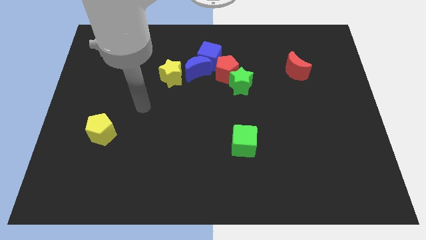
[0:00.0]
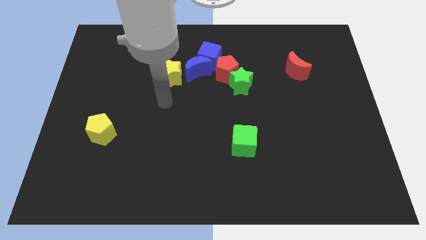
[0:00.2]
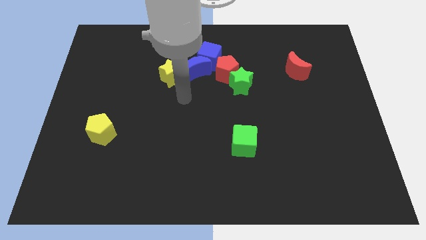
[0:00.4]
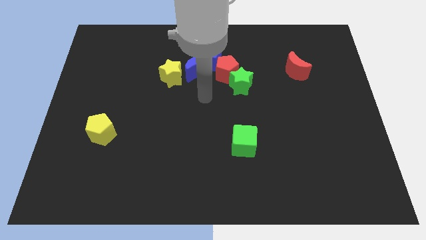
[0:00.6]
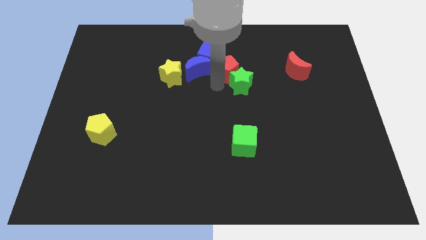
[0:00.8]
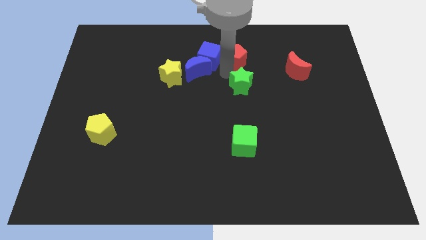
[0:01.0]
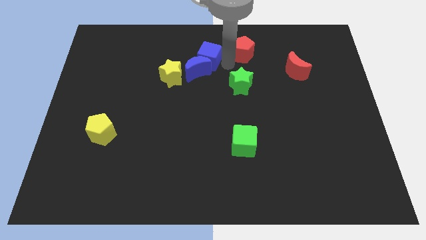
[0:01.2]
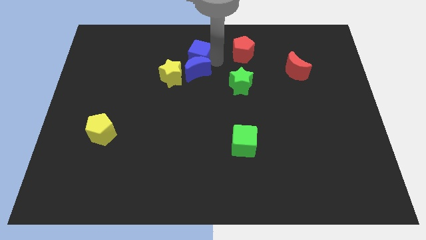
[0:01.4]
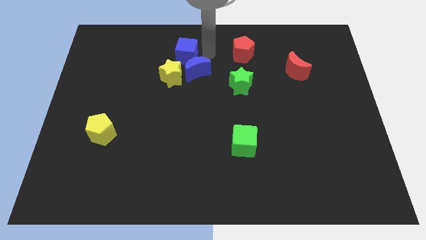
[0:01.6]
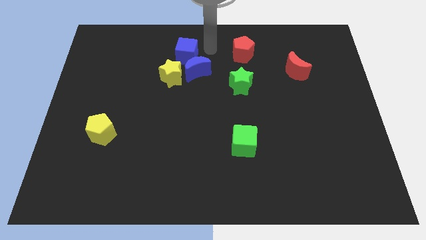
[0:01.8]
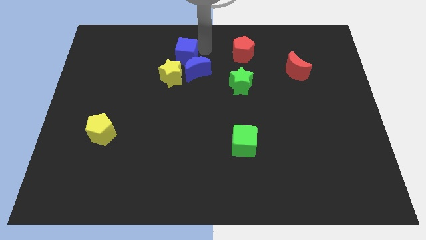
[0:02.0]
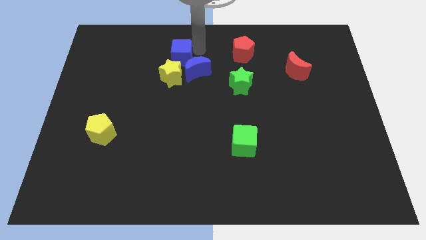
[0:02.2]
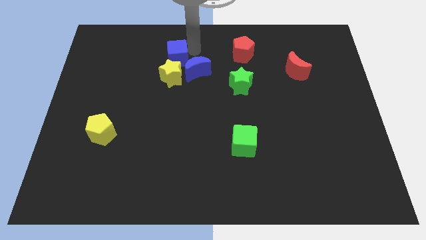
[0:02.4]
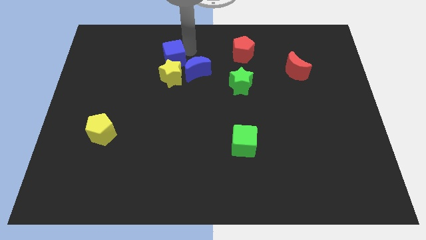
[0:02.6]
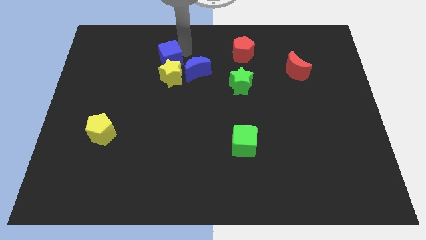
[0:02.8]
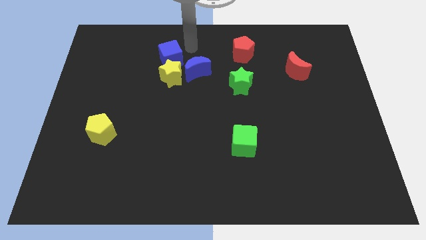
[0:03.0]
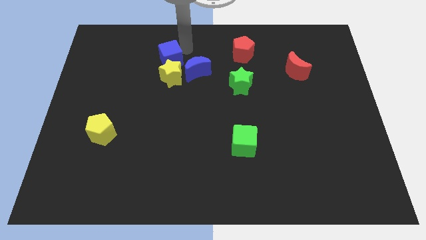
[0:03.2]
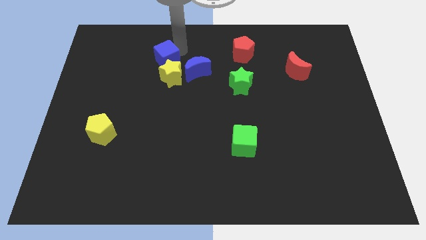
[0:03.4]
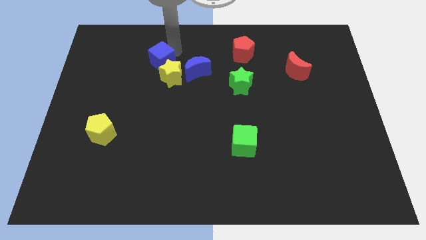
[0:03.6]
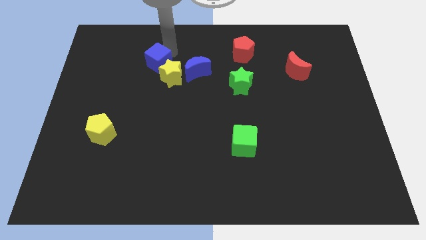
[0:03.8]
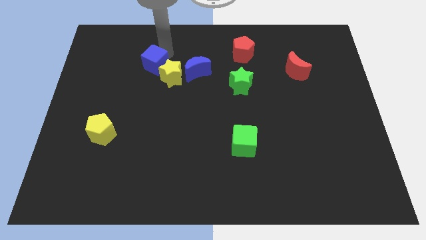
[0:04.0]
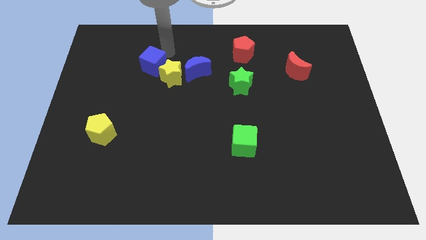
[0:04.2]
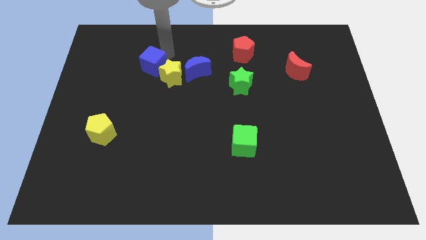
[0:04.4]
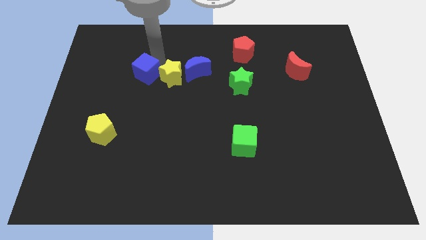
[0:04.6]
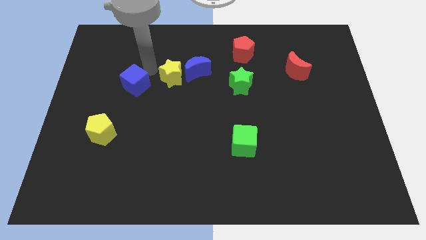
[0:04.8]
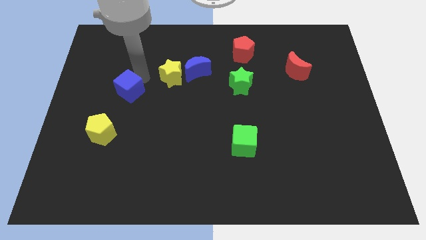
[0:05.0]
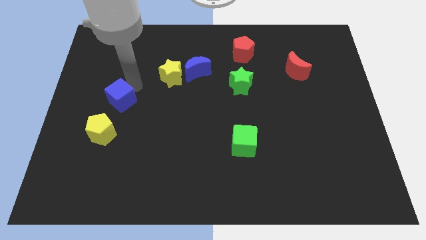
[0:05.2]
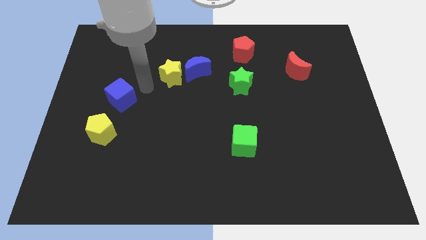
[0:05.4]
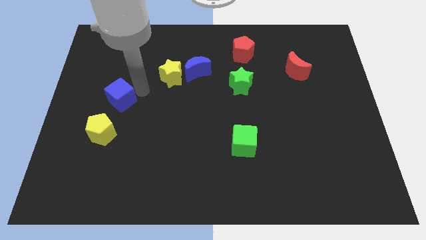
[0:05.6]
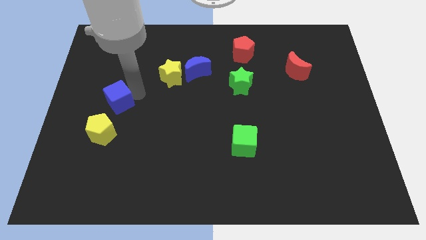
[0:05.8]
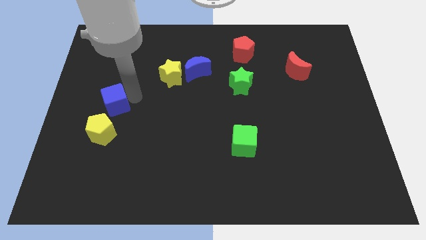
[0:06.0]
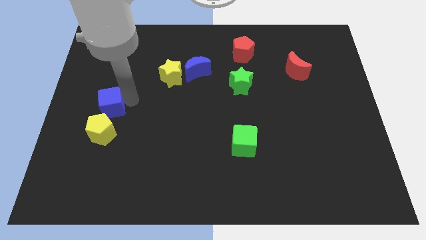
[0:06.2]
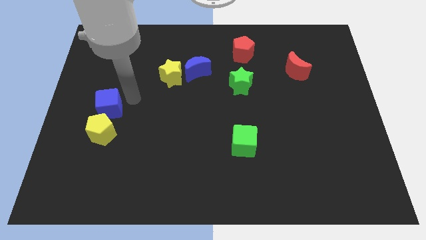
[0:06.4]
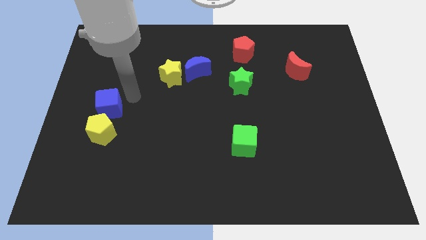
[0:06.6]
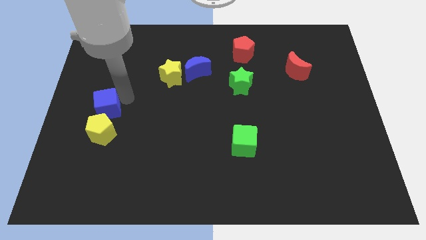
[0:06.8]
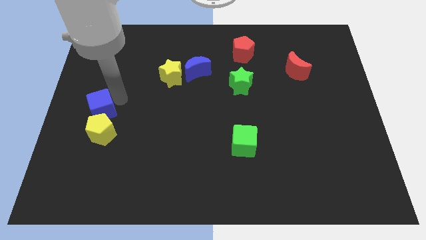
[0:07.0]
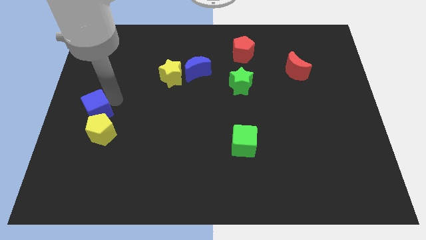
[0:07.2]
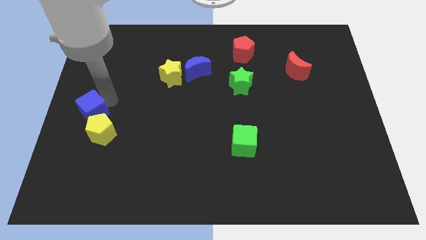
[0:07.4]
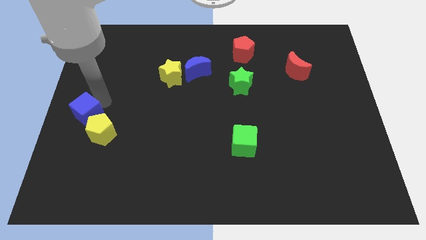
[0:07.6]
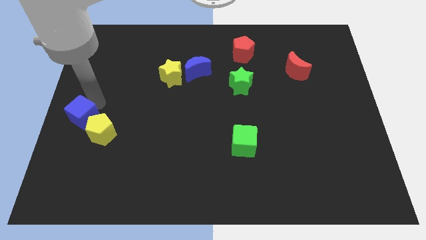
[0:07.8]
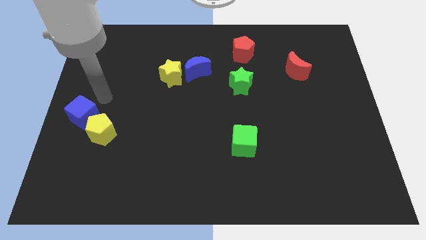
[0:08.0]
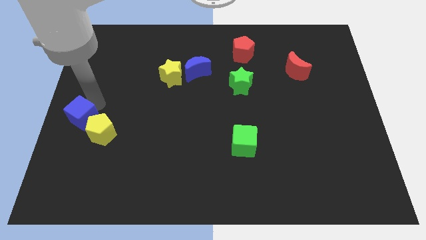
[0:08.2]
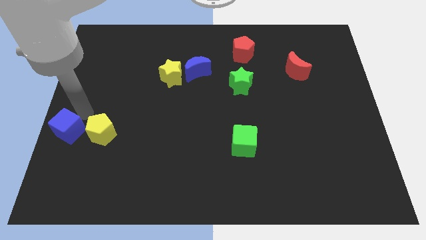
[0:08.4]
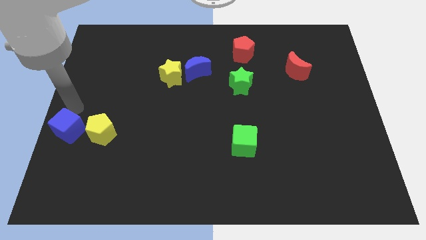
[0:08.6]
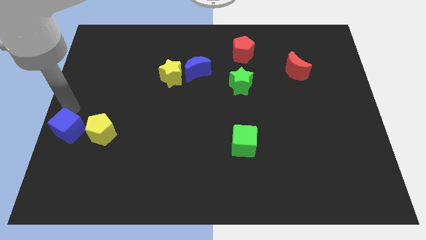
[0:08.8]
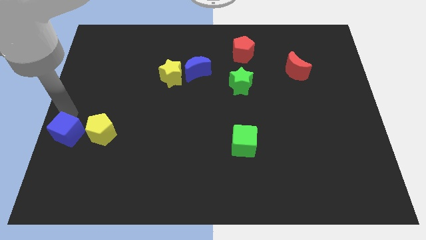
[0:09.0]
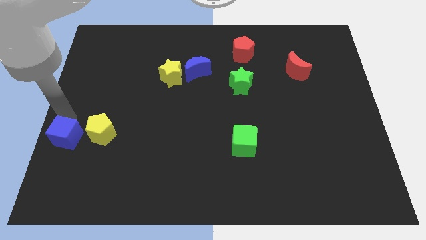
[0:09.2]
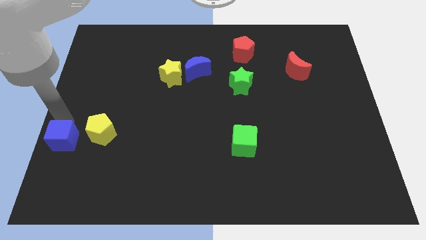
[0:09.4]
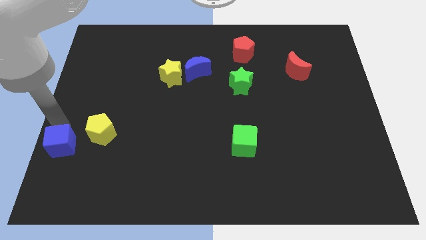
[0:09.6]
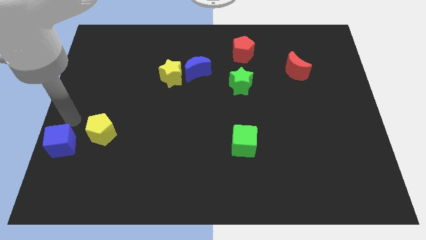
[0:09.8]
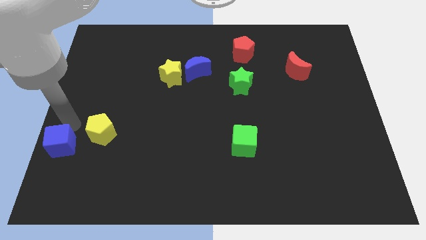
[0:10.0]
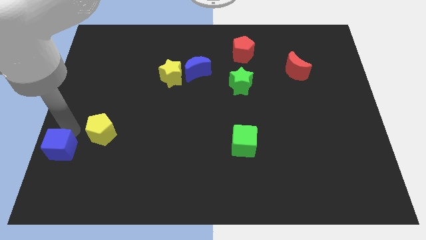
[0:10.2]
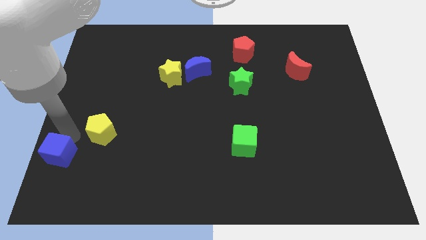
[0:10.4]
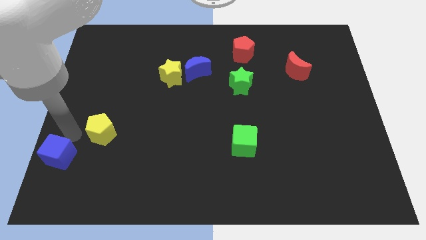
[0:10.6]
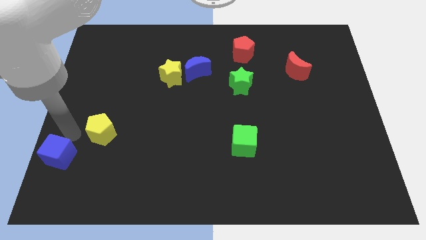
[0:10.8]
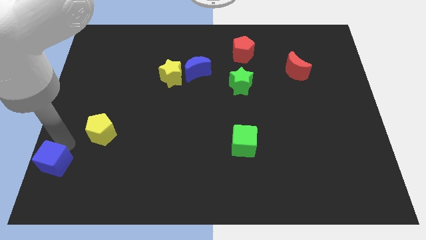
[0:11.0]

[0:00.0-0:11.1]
push the blue cube to the lower left corner
